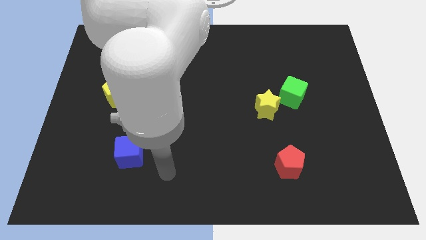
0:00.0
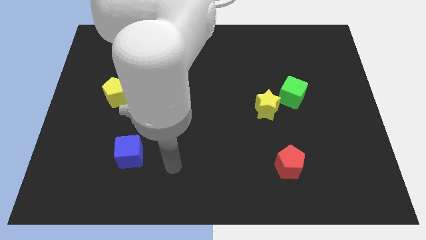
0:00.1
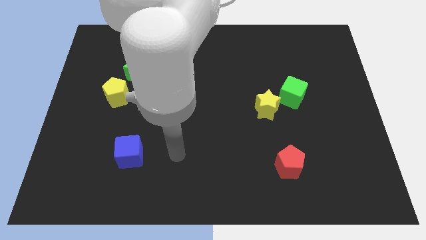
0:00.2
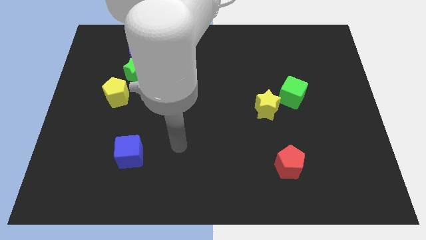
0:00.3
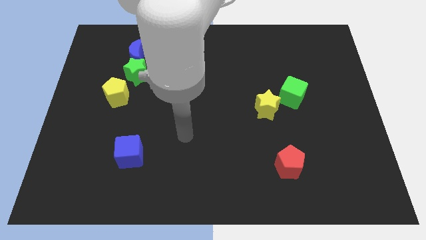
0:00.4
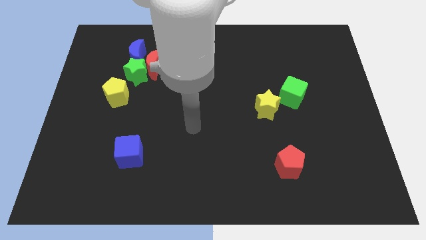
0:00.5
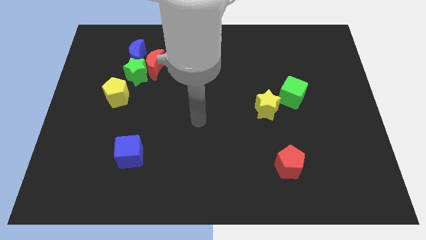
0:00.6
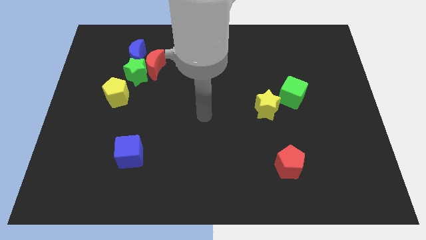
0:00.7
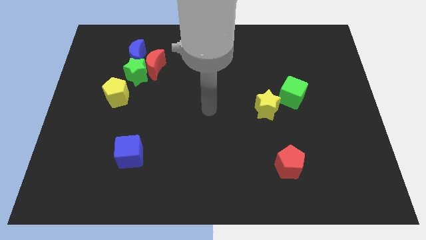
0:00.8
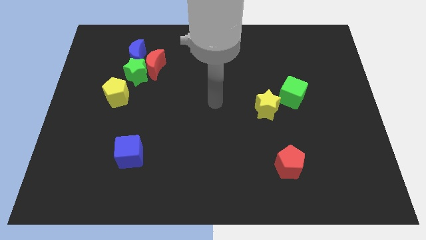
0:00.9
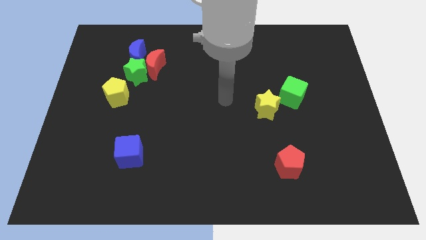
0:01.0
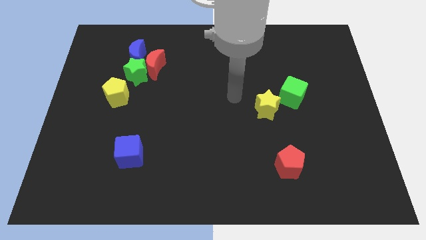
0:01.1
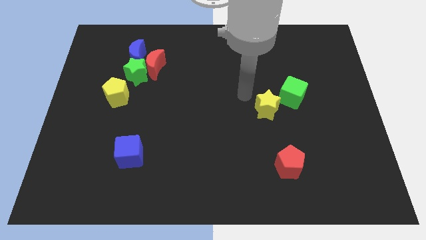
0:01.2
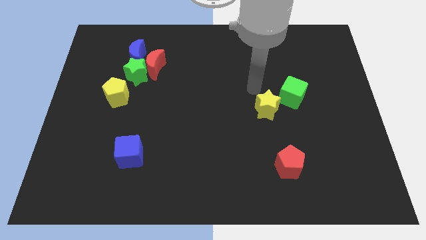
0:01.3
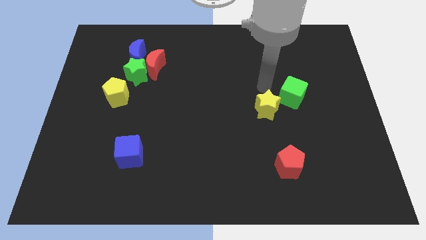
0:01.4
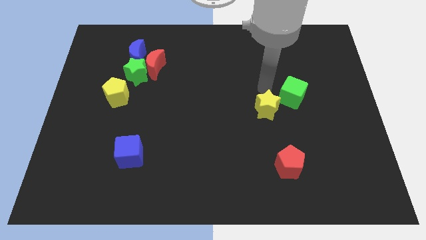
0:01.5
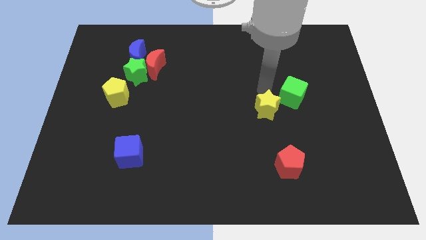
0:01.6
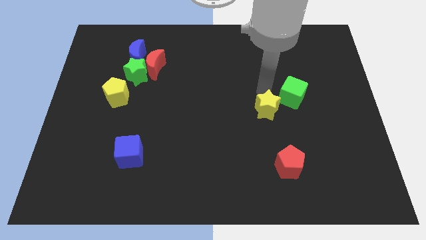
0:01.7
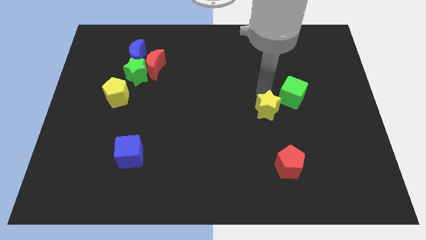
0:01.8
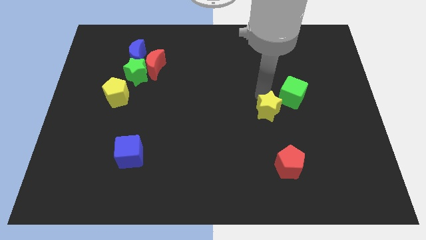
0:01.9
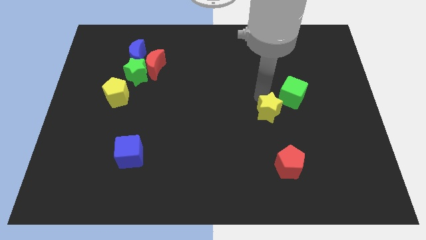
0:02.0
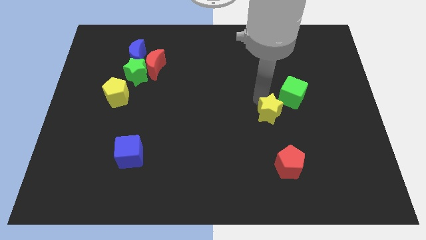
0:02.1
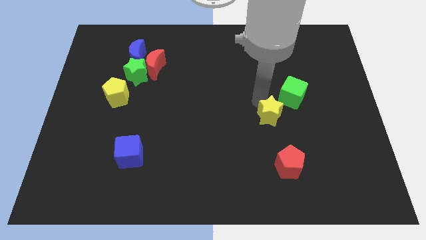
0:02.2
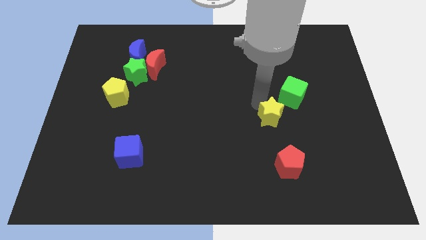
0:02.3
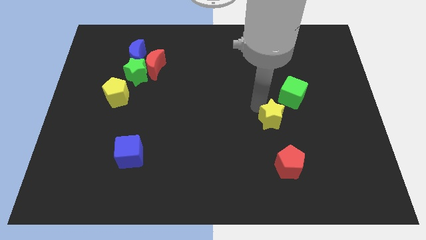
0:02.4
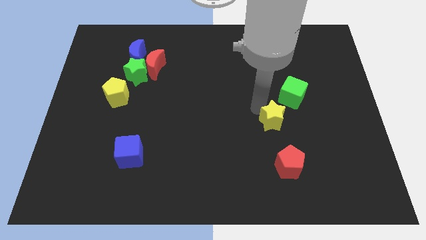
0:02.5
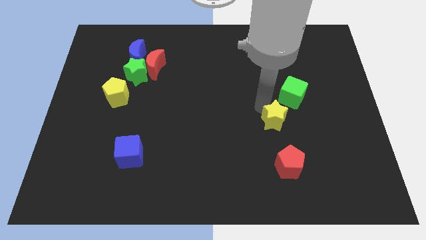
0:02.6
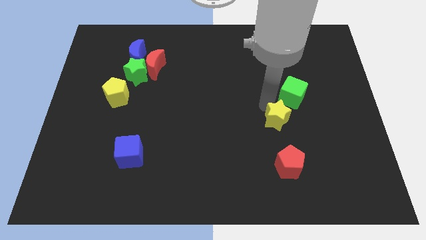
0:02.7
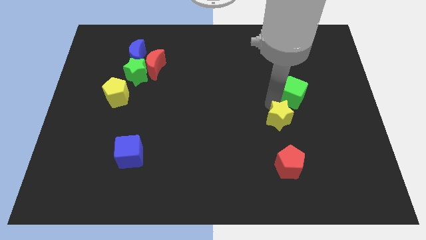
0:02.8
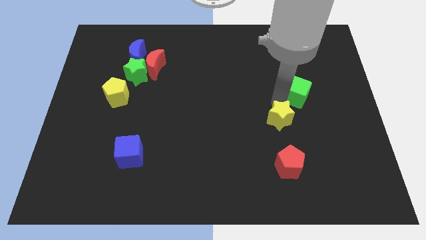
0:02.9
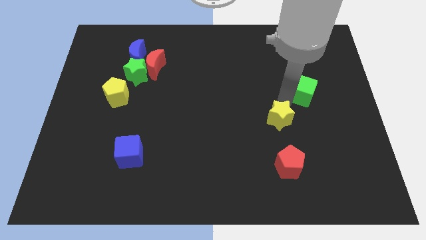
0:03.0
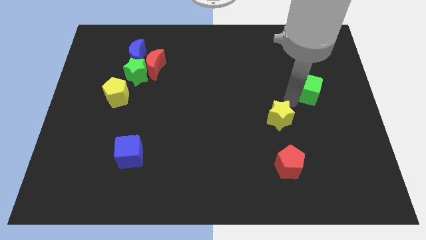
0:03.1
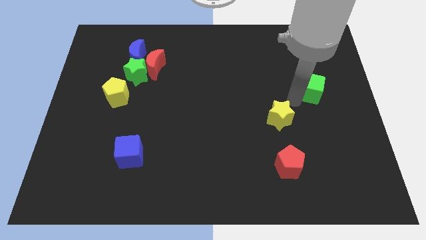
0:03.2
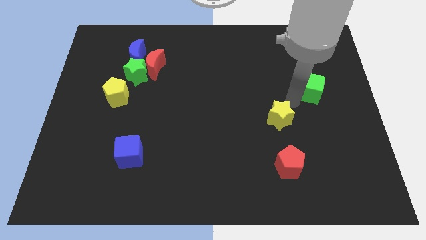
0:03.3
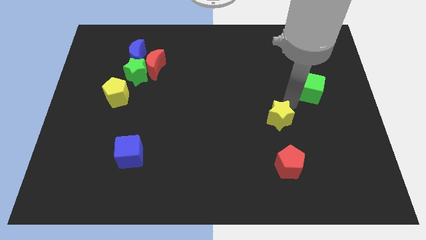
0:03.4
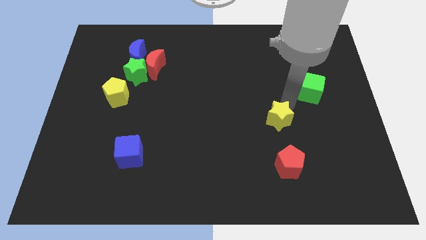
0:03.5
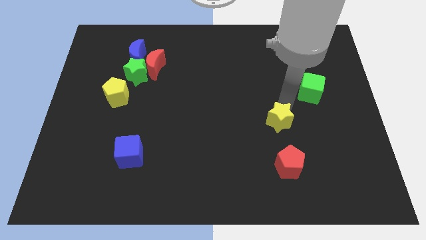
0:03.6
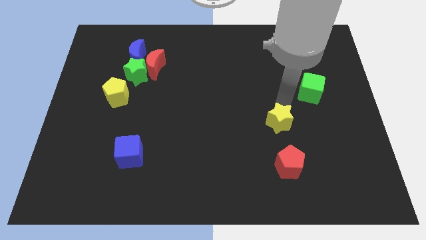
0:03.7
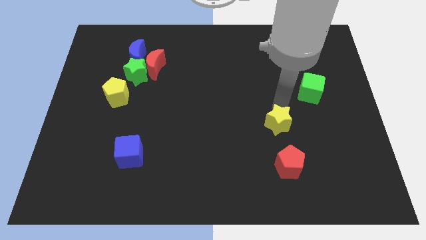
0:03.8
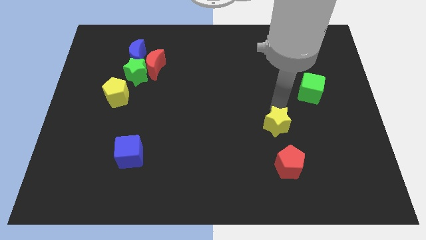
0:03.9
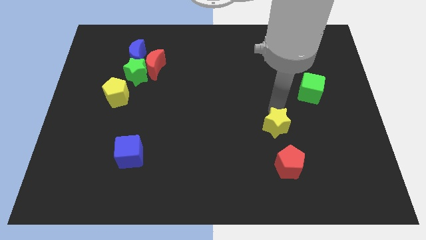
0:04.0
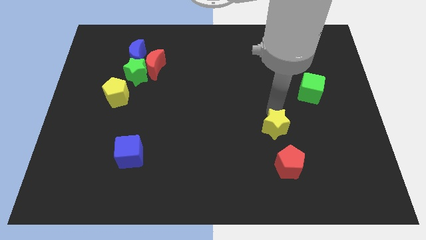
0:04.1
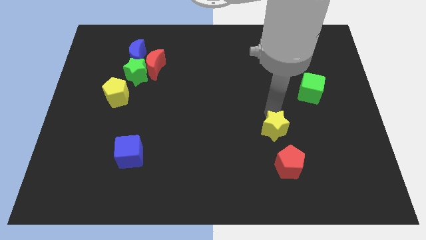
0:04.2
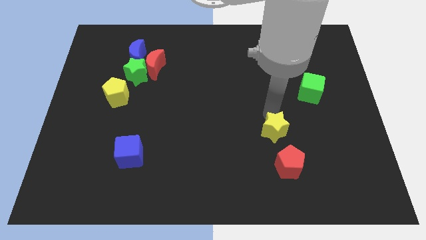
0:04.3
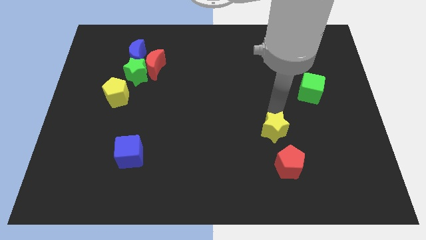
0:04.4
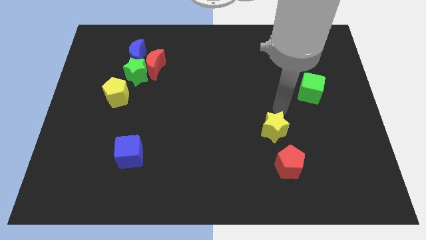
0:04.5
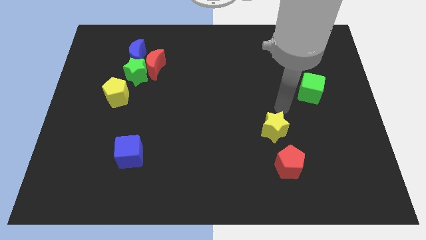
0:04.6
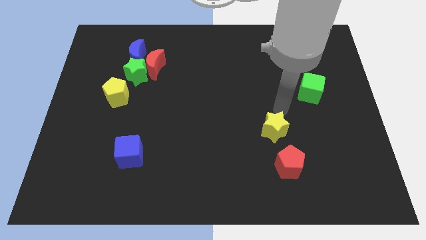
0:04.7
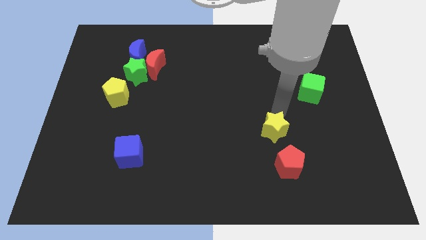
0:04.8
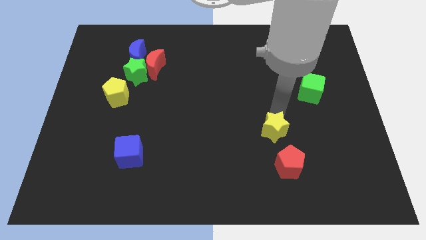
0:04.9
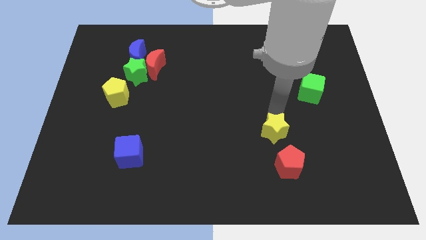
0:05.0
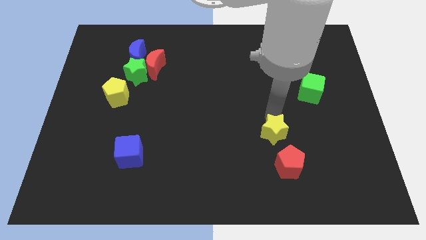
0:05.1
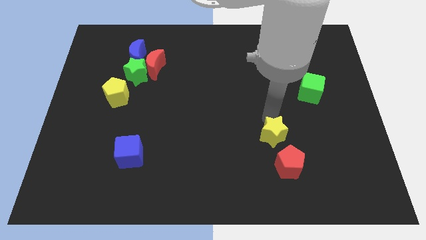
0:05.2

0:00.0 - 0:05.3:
slide the yellow star slightly down

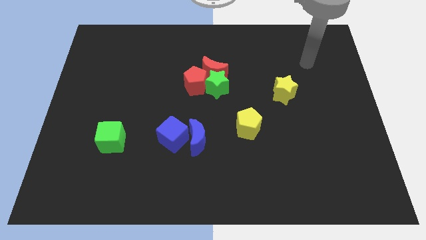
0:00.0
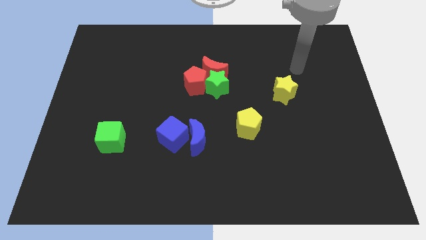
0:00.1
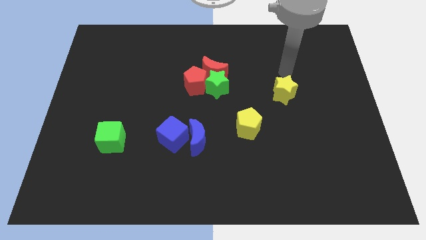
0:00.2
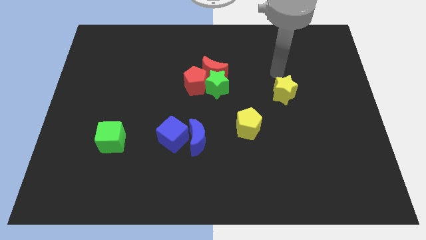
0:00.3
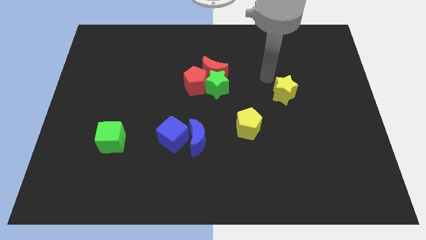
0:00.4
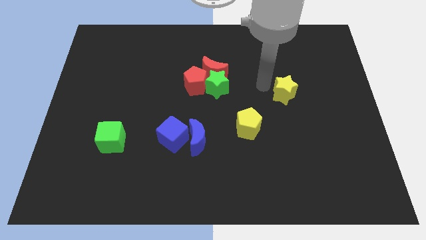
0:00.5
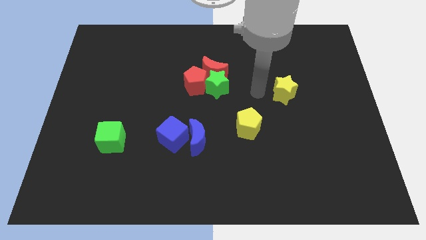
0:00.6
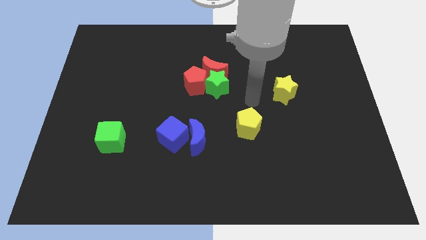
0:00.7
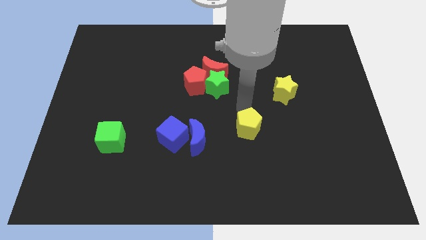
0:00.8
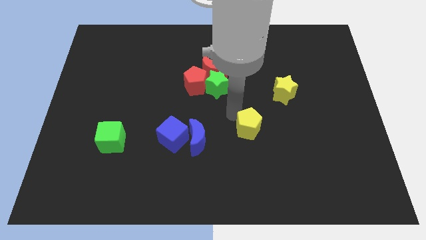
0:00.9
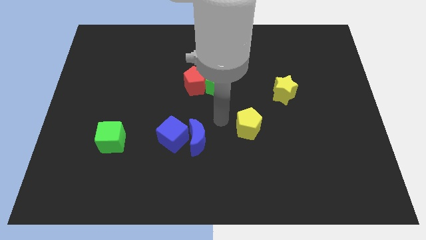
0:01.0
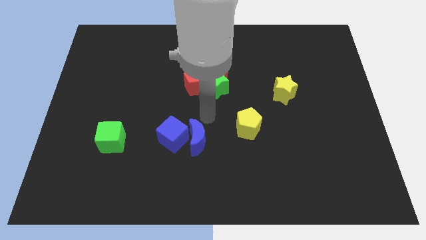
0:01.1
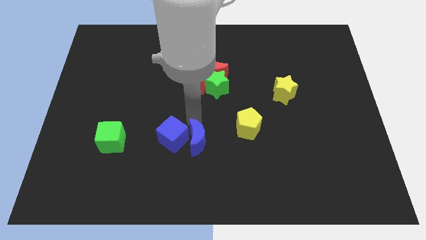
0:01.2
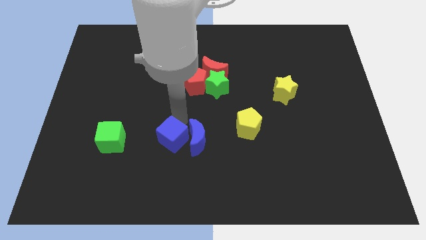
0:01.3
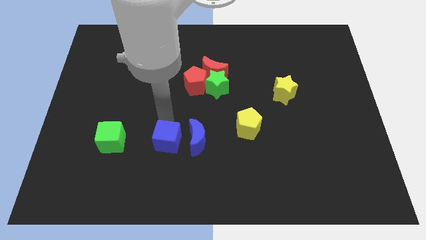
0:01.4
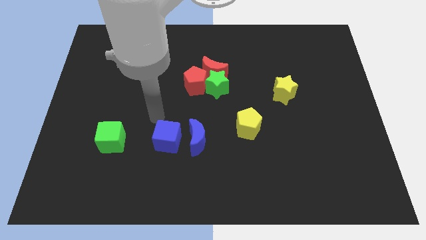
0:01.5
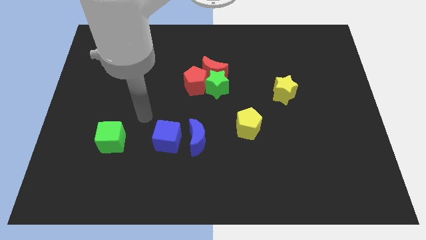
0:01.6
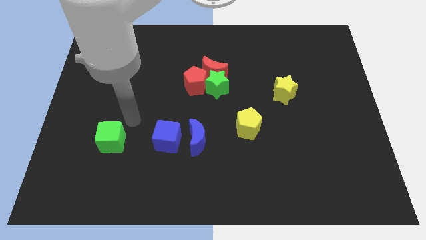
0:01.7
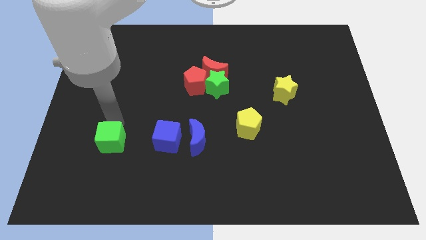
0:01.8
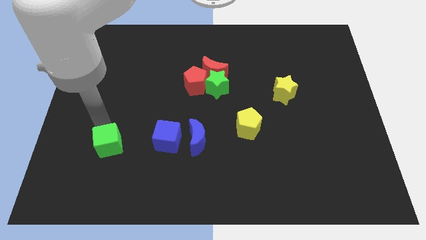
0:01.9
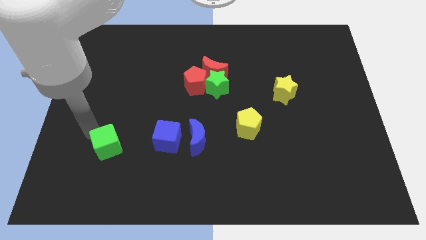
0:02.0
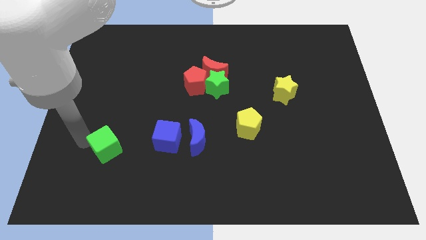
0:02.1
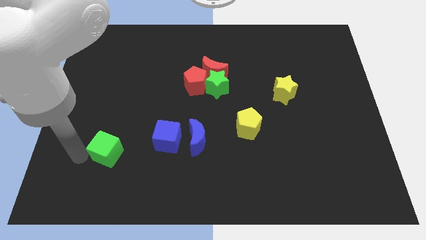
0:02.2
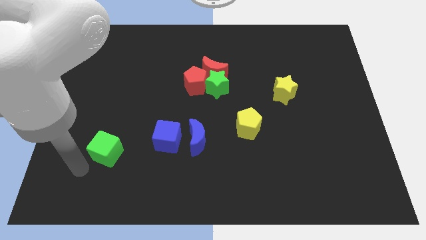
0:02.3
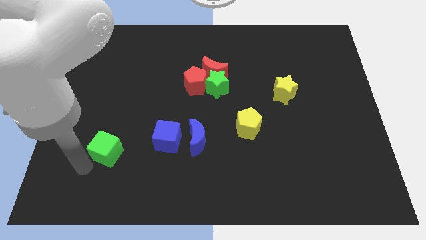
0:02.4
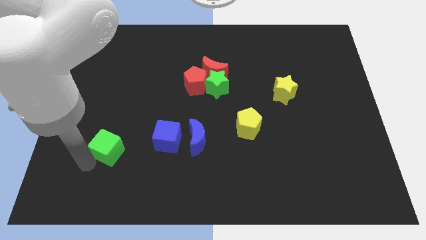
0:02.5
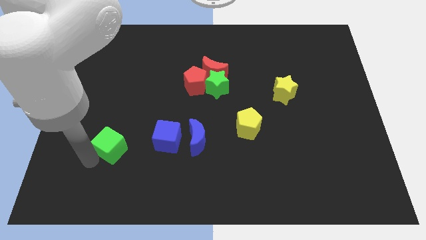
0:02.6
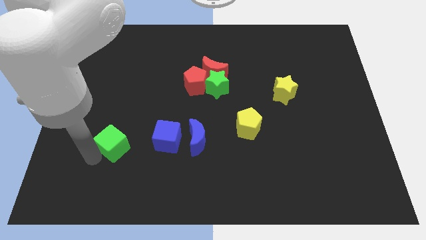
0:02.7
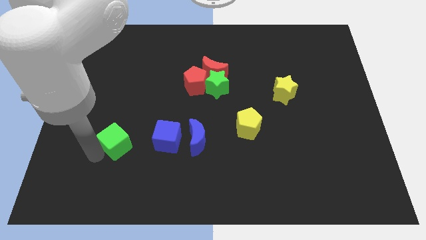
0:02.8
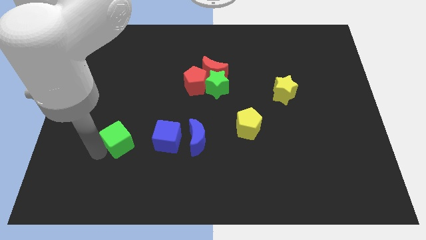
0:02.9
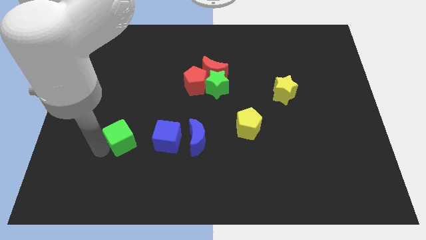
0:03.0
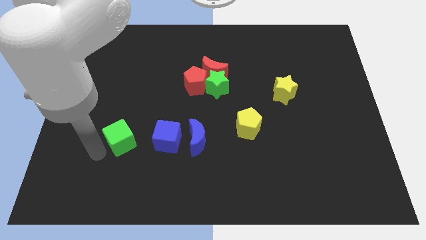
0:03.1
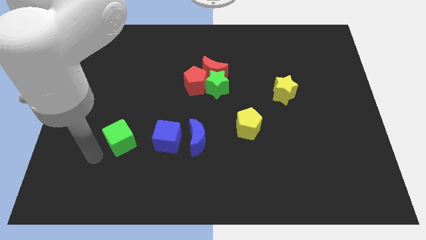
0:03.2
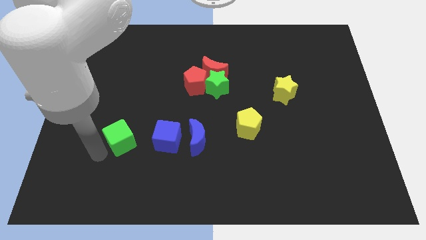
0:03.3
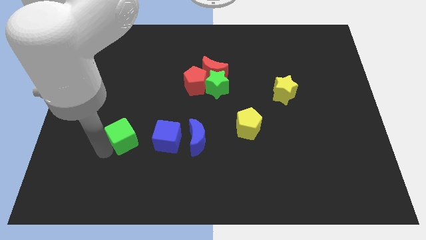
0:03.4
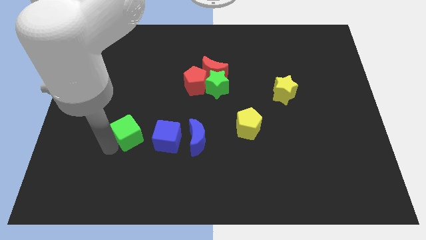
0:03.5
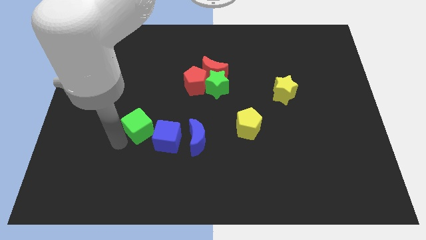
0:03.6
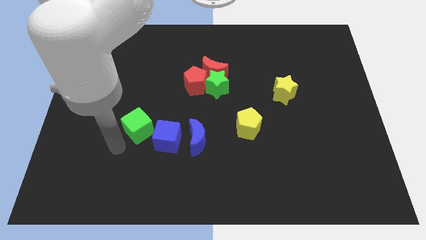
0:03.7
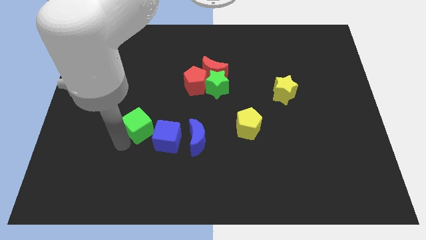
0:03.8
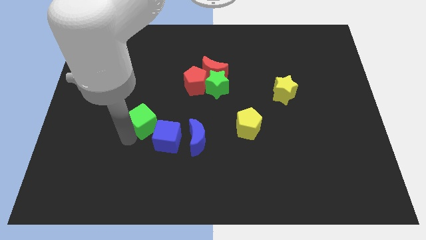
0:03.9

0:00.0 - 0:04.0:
push the green cube up and right diagonally a bit
